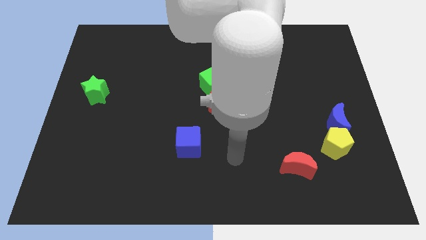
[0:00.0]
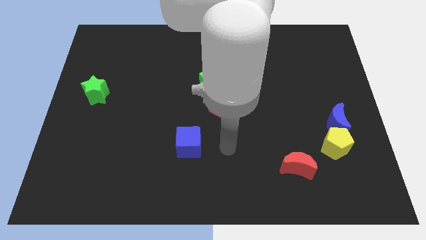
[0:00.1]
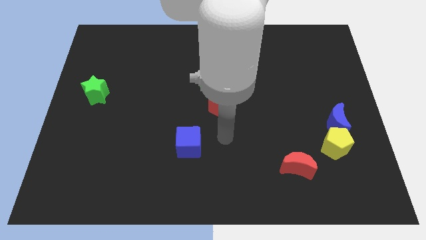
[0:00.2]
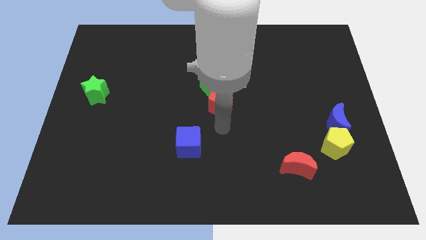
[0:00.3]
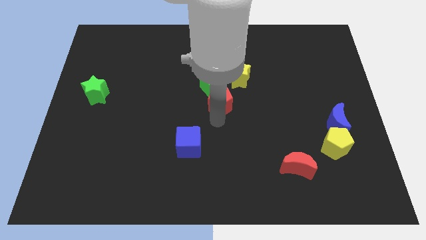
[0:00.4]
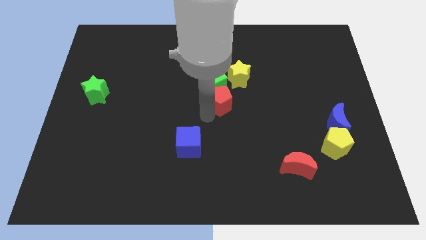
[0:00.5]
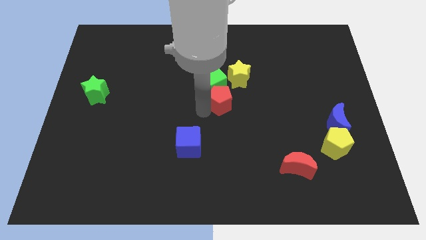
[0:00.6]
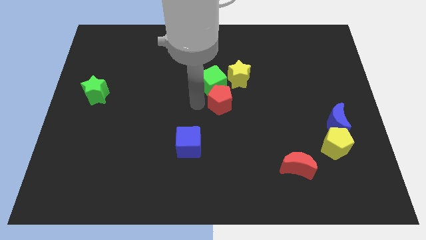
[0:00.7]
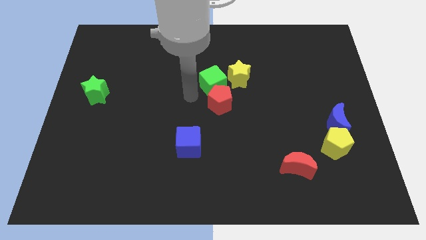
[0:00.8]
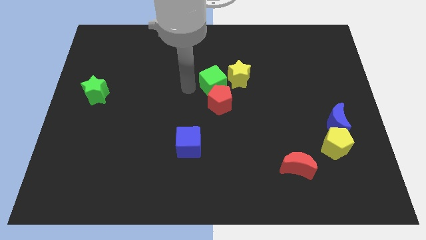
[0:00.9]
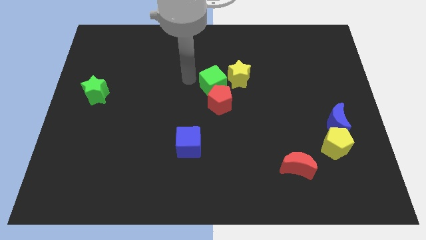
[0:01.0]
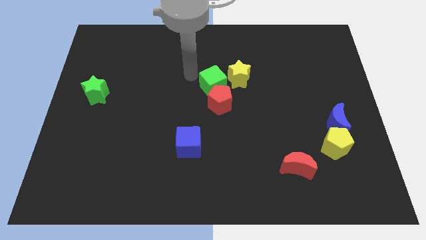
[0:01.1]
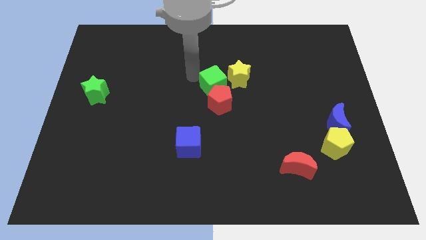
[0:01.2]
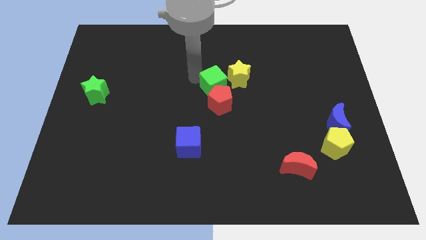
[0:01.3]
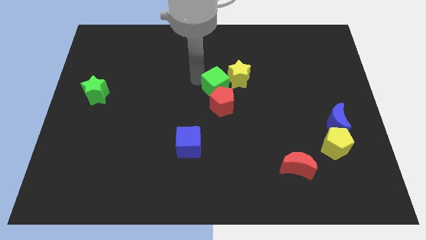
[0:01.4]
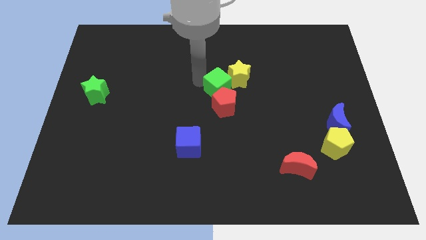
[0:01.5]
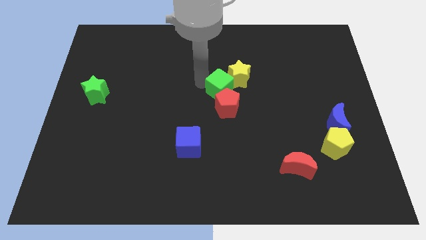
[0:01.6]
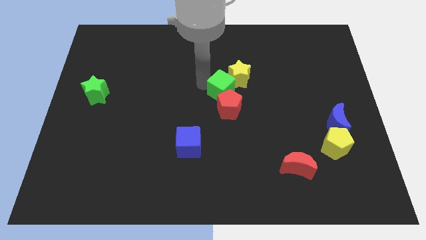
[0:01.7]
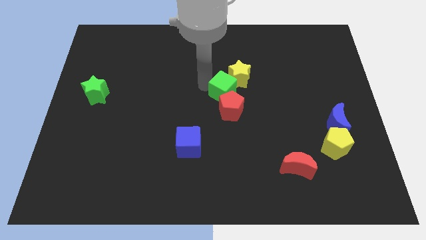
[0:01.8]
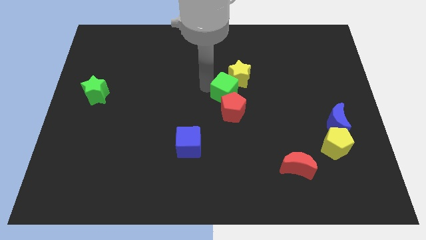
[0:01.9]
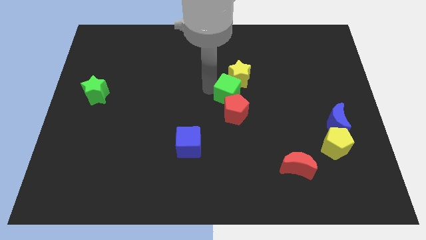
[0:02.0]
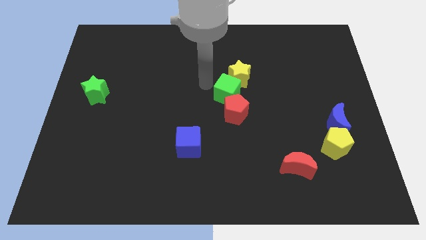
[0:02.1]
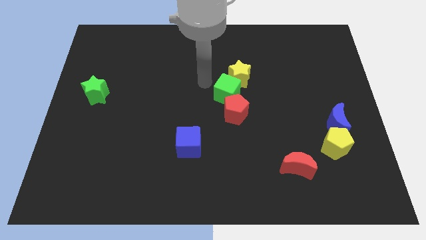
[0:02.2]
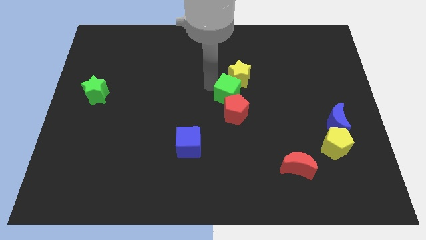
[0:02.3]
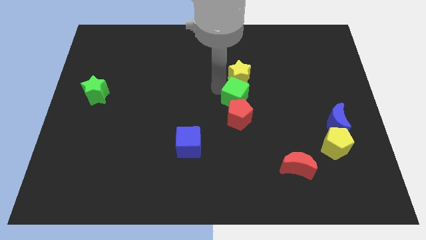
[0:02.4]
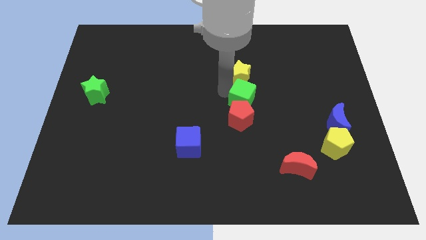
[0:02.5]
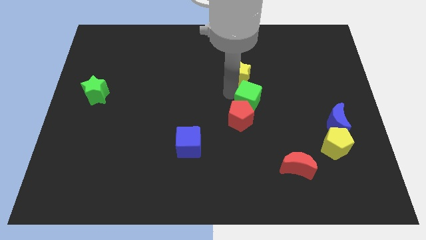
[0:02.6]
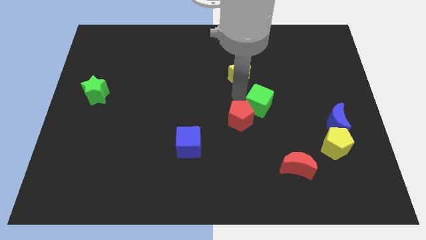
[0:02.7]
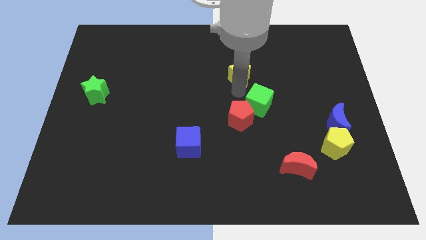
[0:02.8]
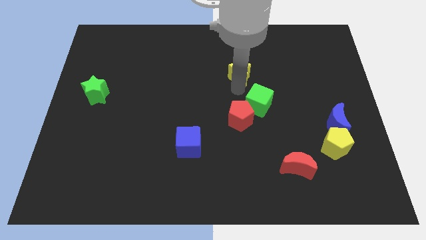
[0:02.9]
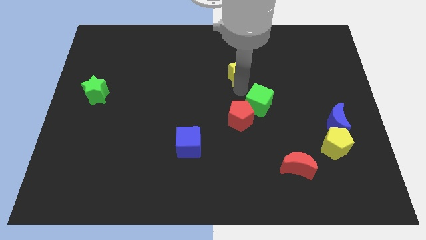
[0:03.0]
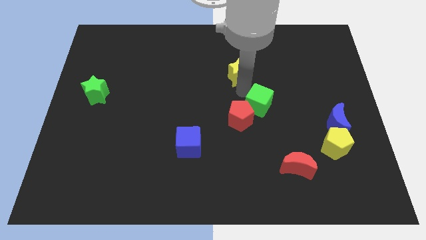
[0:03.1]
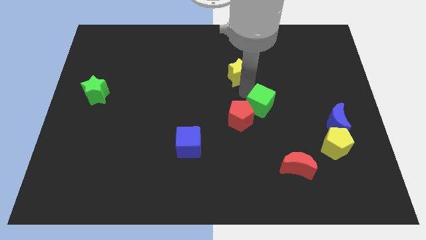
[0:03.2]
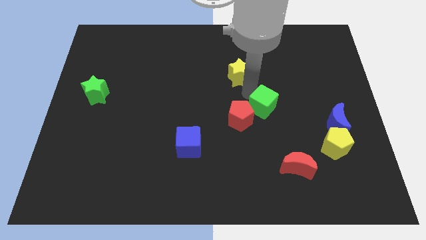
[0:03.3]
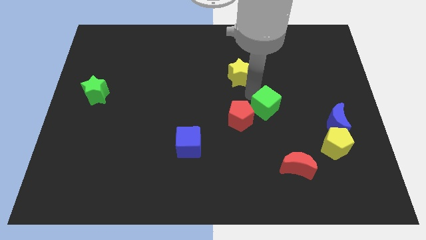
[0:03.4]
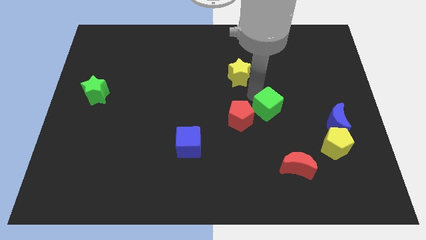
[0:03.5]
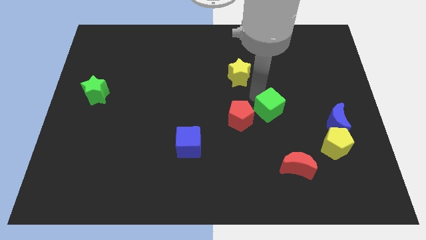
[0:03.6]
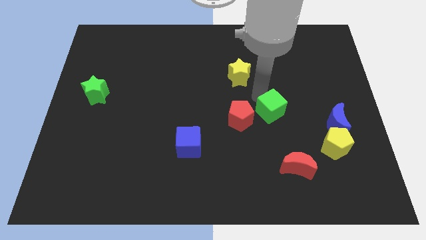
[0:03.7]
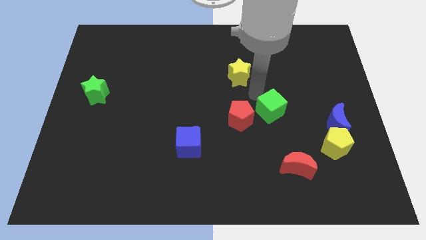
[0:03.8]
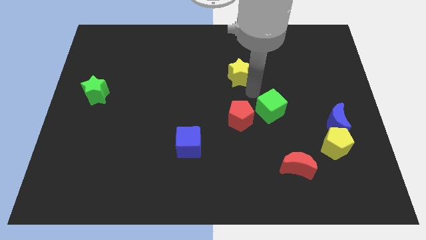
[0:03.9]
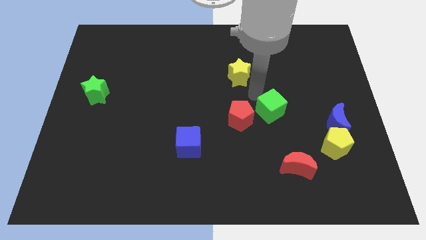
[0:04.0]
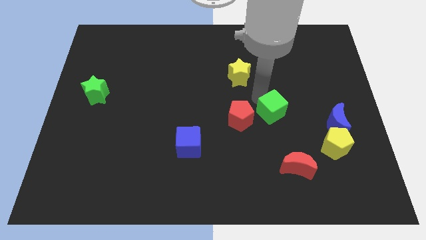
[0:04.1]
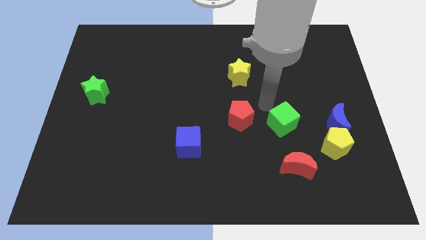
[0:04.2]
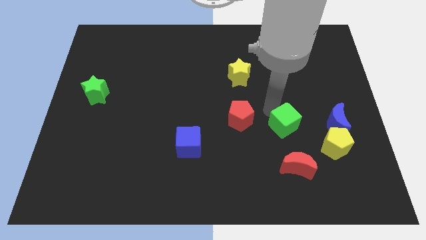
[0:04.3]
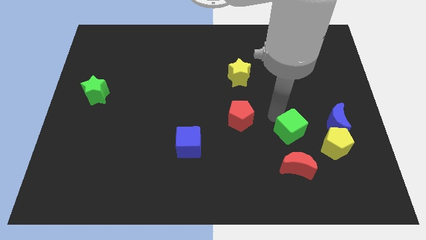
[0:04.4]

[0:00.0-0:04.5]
push the green cube down and right diagonally

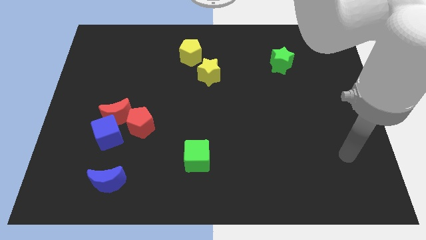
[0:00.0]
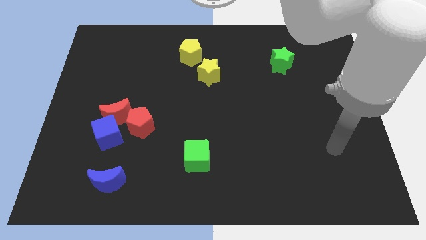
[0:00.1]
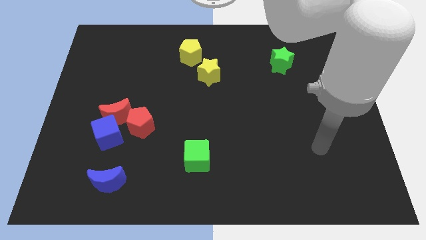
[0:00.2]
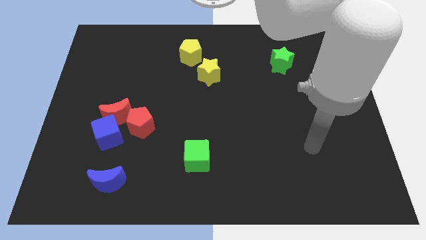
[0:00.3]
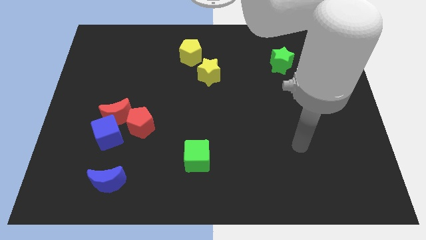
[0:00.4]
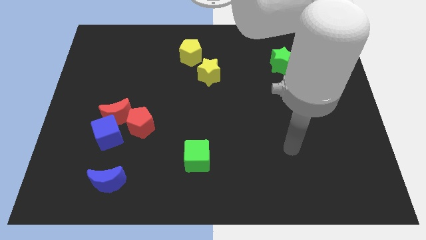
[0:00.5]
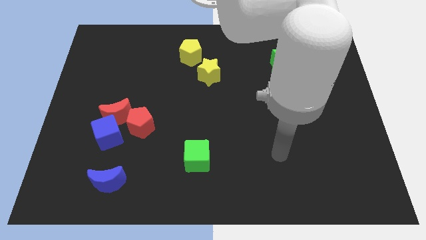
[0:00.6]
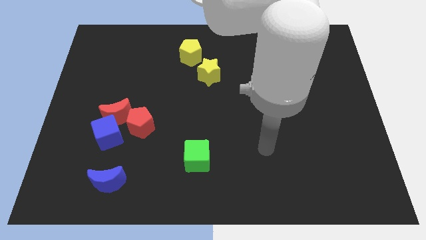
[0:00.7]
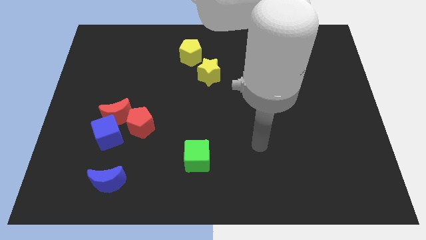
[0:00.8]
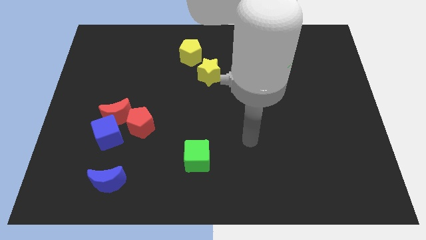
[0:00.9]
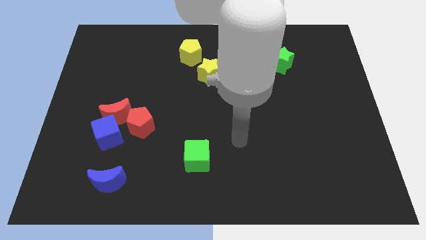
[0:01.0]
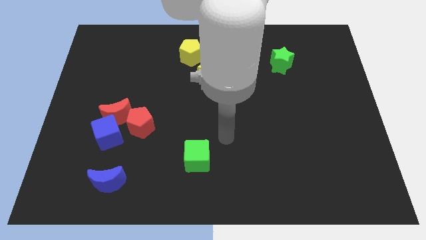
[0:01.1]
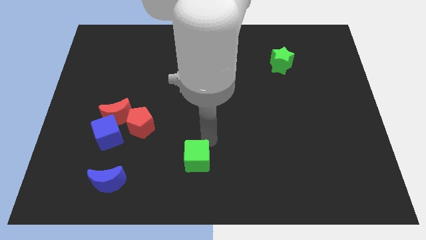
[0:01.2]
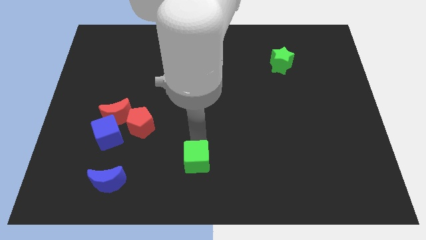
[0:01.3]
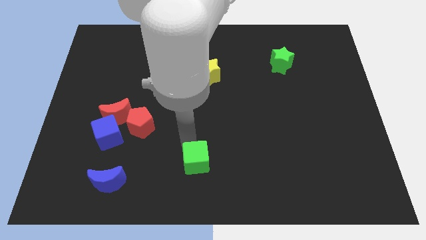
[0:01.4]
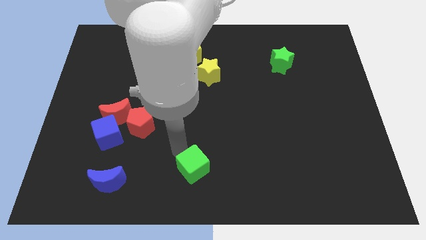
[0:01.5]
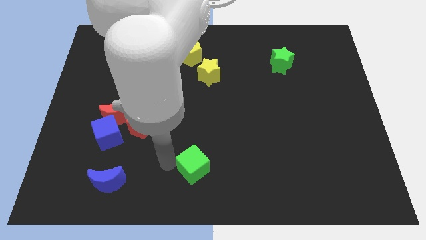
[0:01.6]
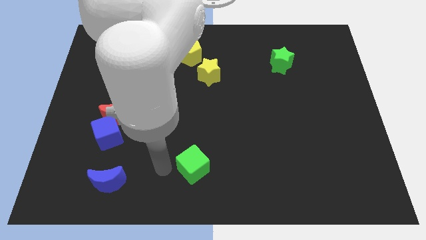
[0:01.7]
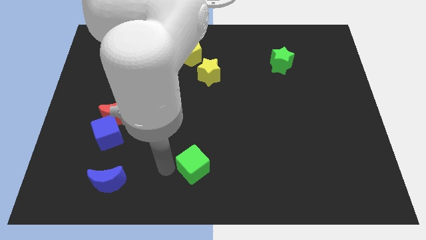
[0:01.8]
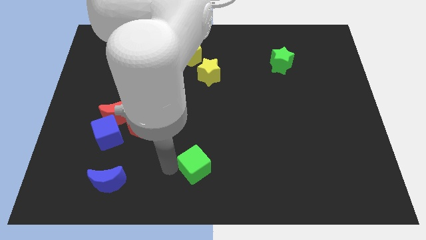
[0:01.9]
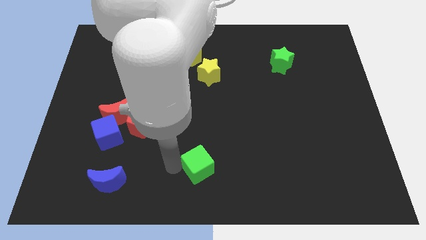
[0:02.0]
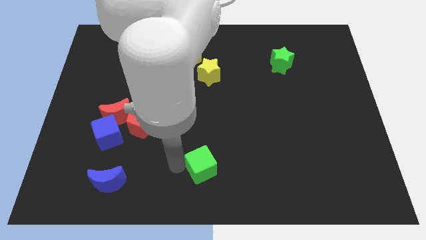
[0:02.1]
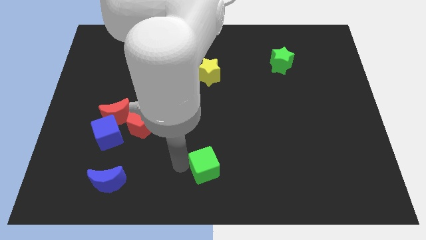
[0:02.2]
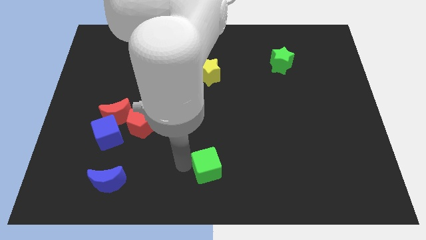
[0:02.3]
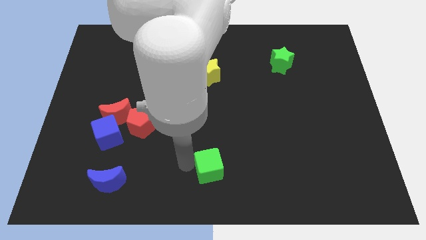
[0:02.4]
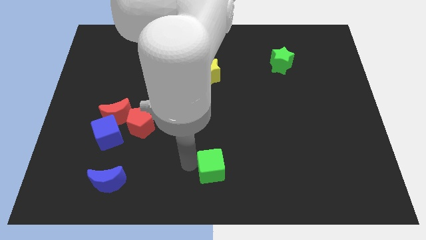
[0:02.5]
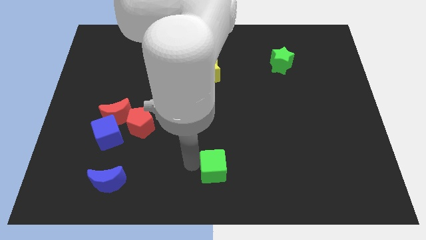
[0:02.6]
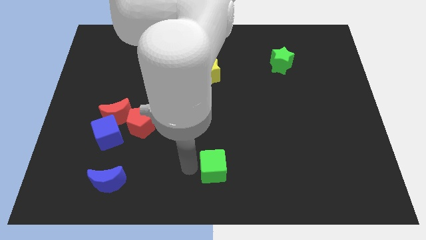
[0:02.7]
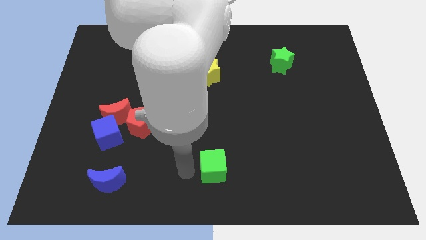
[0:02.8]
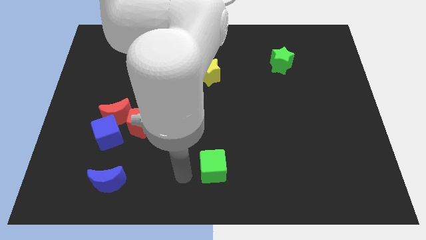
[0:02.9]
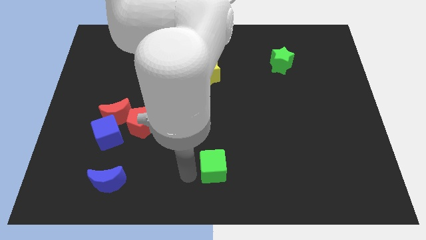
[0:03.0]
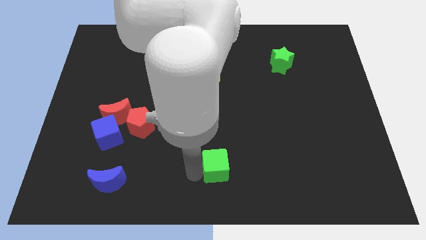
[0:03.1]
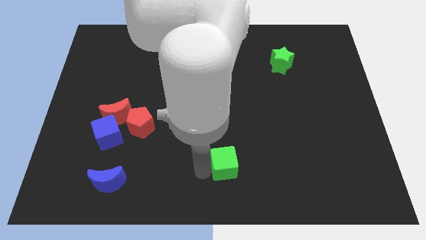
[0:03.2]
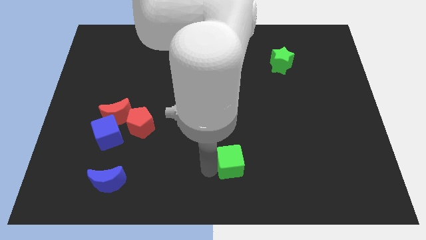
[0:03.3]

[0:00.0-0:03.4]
slightly push the green cube right
